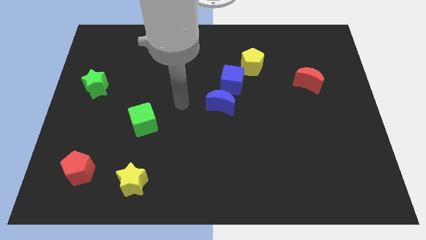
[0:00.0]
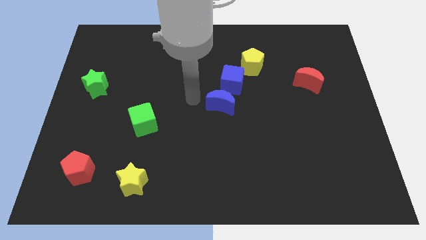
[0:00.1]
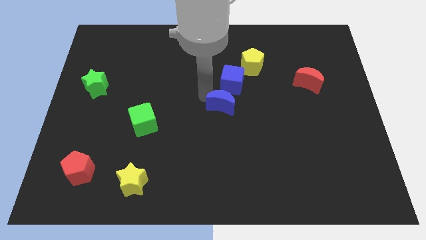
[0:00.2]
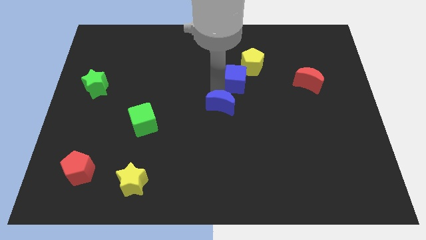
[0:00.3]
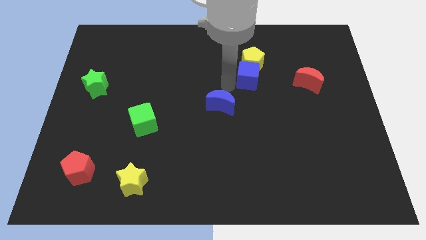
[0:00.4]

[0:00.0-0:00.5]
pull the blue moon apart from the blue cube

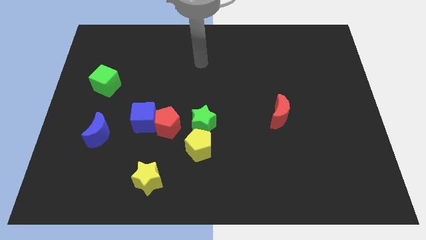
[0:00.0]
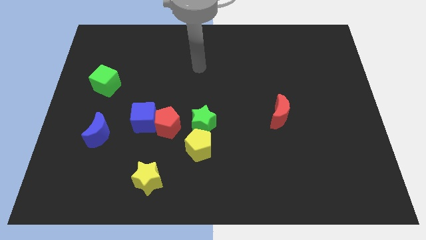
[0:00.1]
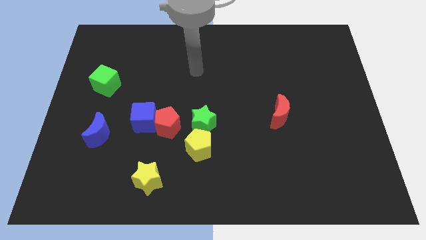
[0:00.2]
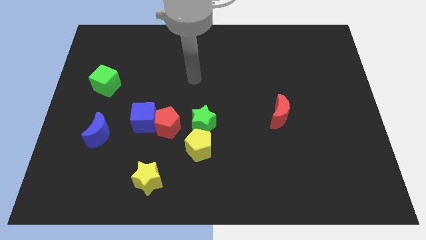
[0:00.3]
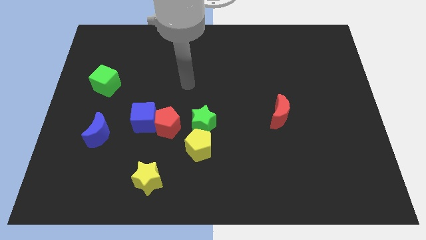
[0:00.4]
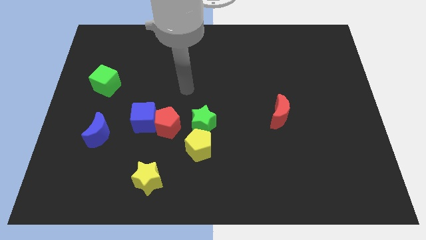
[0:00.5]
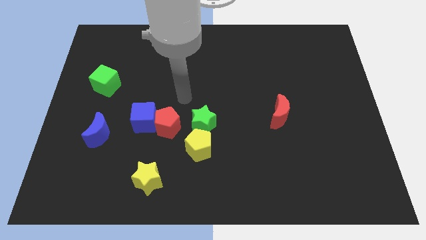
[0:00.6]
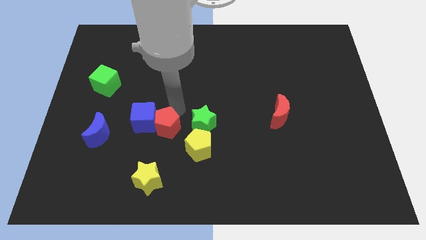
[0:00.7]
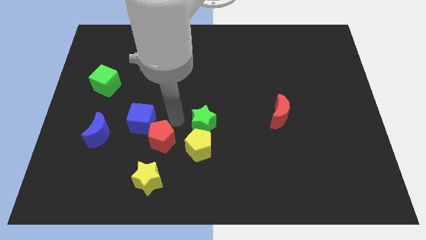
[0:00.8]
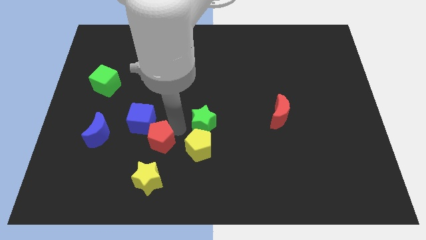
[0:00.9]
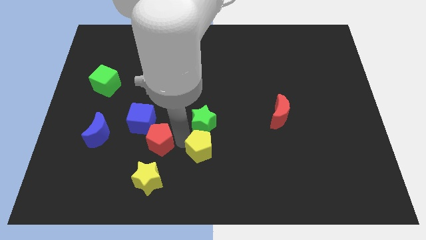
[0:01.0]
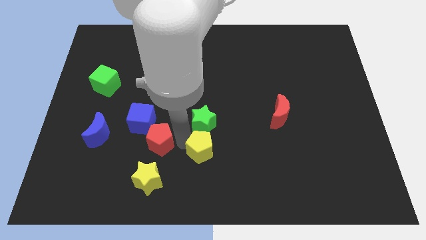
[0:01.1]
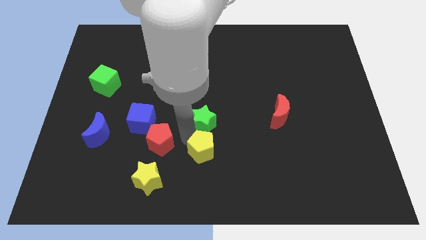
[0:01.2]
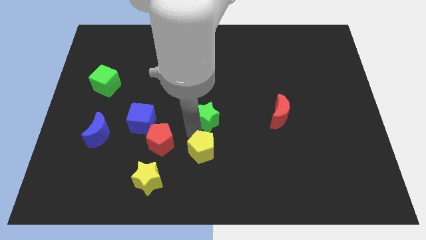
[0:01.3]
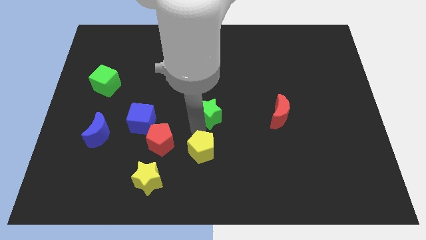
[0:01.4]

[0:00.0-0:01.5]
pull the green star apart from the yellow pentagon and red pentagon

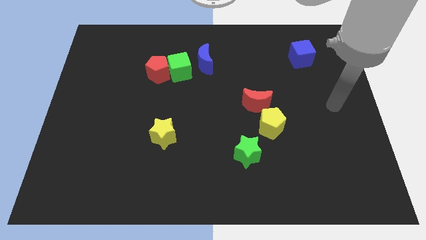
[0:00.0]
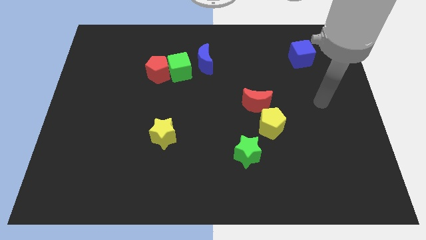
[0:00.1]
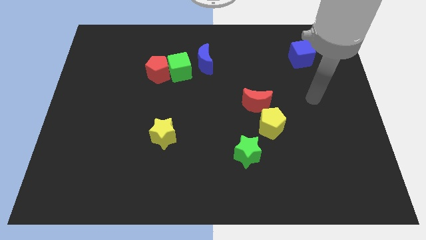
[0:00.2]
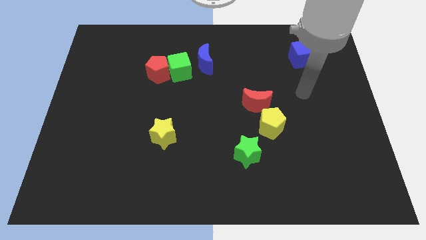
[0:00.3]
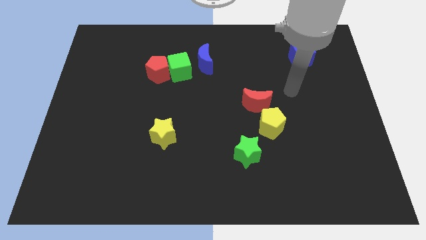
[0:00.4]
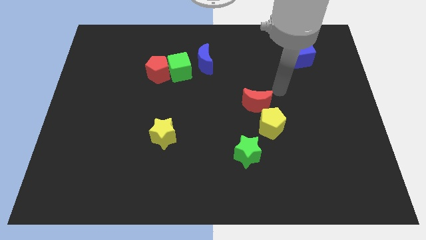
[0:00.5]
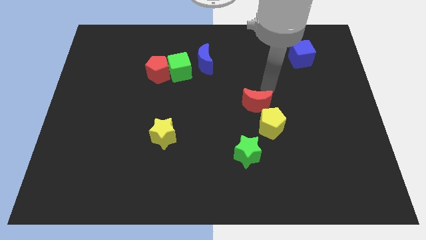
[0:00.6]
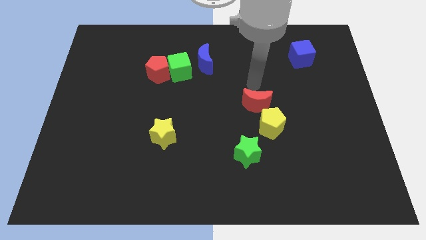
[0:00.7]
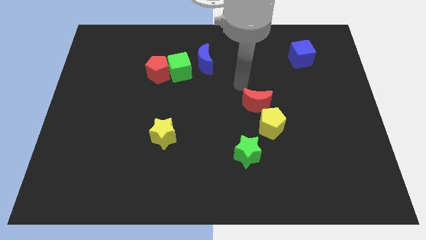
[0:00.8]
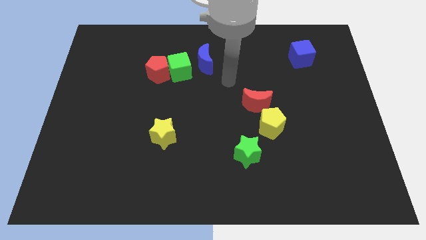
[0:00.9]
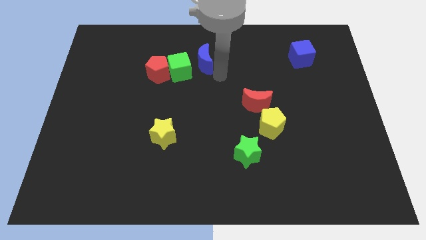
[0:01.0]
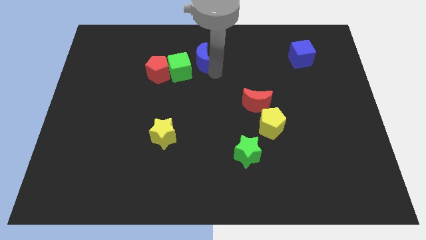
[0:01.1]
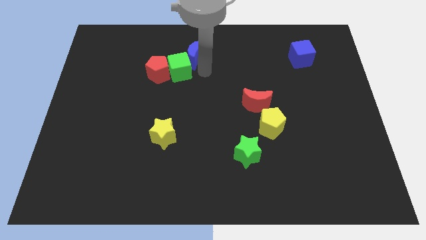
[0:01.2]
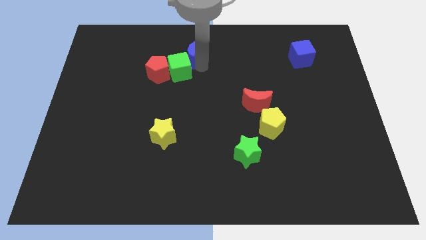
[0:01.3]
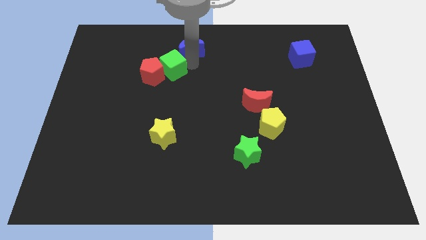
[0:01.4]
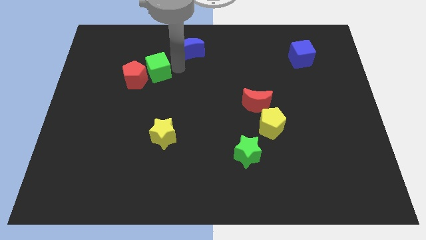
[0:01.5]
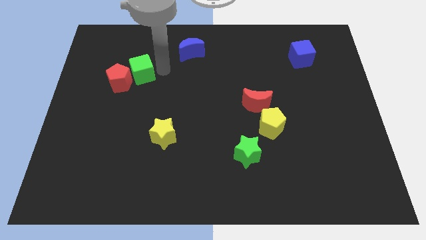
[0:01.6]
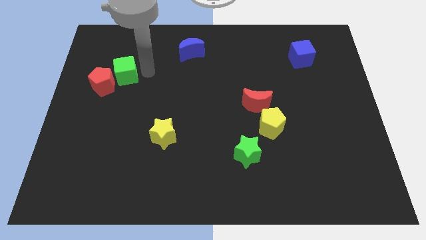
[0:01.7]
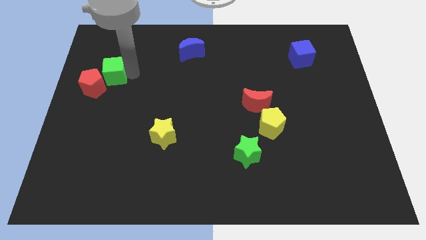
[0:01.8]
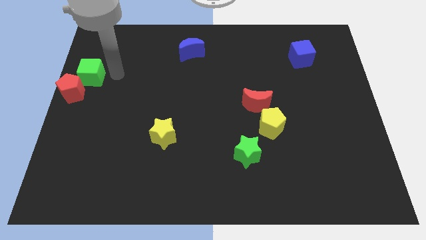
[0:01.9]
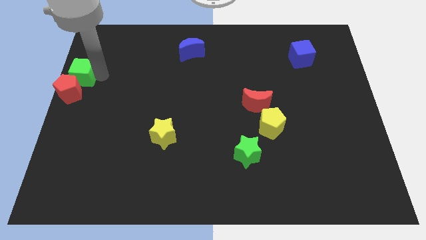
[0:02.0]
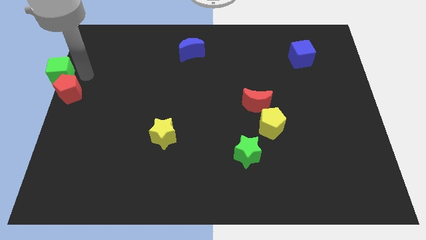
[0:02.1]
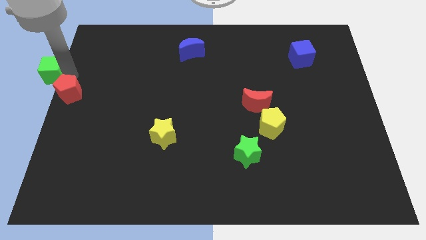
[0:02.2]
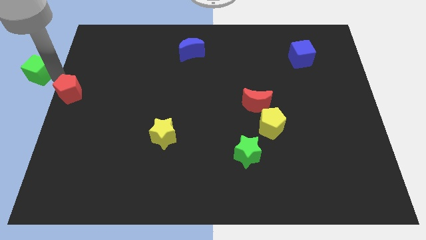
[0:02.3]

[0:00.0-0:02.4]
separate the red pentagon from the green cube

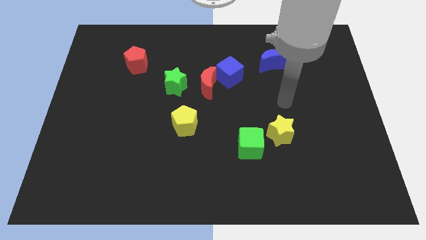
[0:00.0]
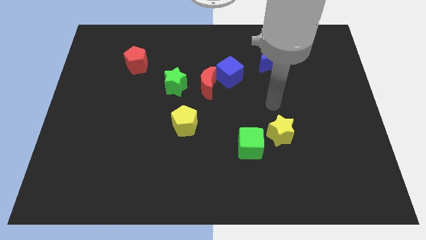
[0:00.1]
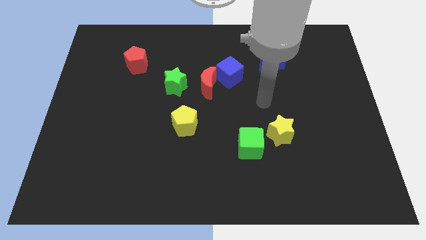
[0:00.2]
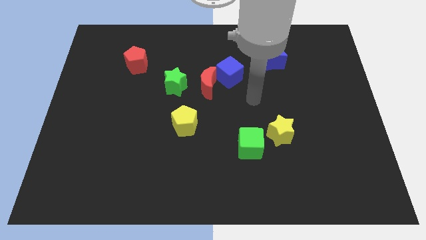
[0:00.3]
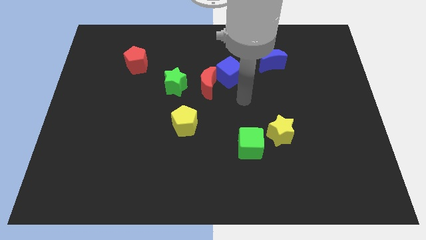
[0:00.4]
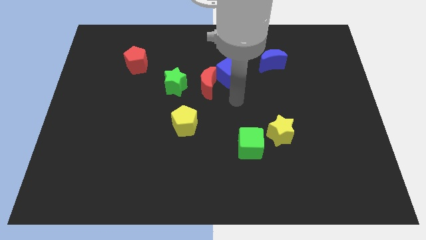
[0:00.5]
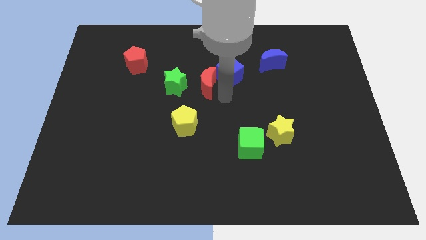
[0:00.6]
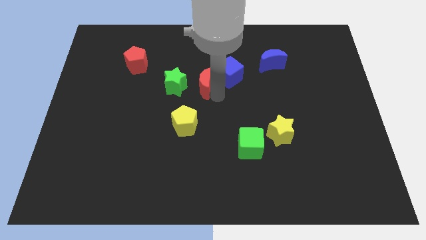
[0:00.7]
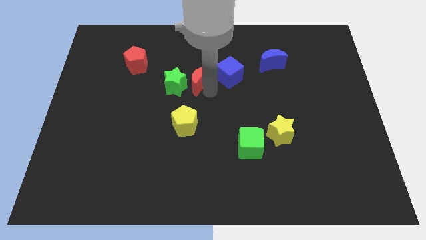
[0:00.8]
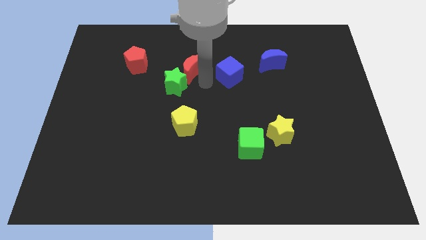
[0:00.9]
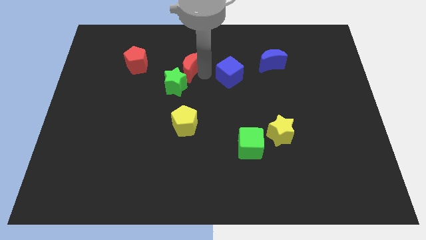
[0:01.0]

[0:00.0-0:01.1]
separate the blue cube from the red moon

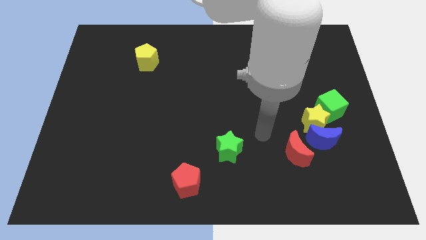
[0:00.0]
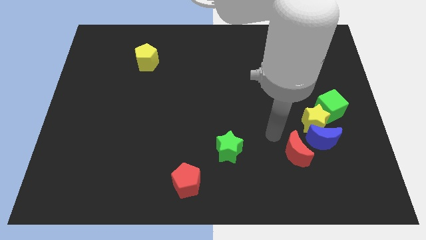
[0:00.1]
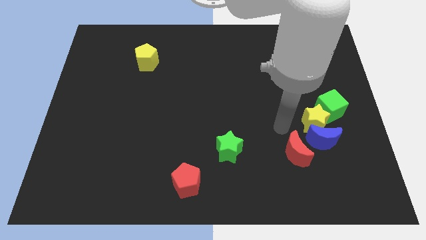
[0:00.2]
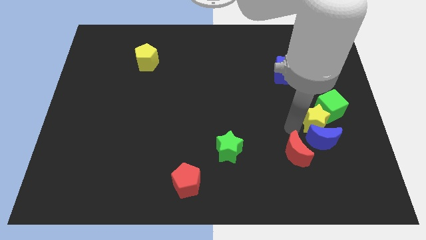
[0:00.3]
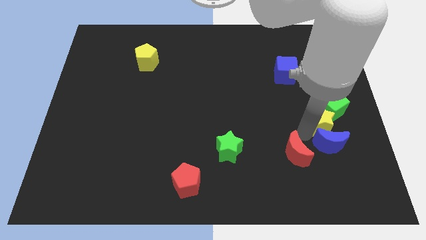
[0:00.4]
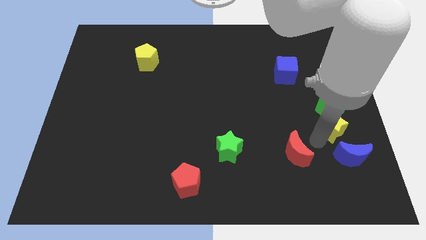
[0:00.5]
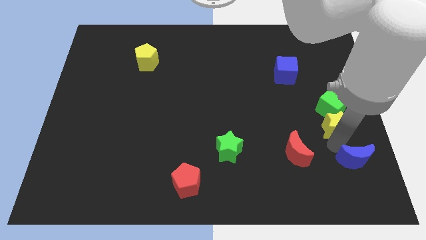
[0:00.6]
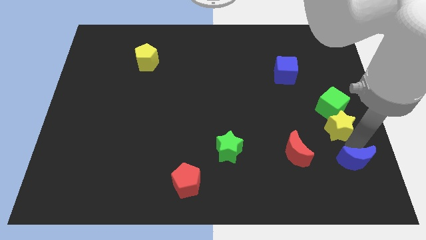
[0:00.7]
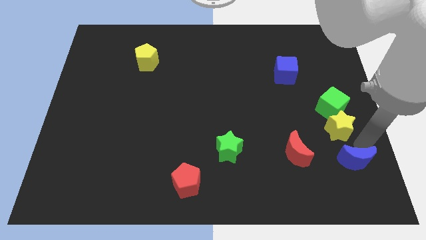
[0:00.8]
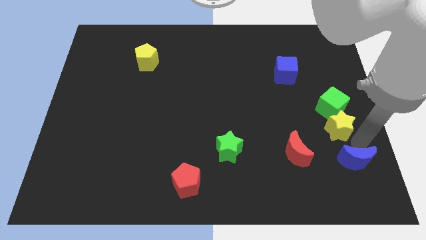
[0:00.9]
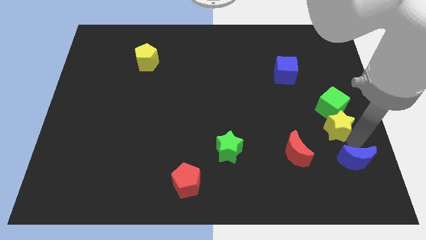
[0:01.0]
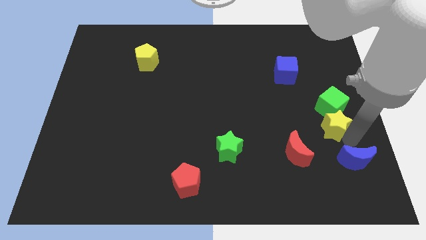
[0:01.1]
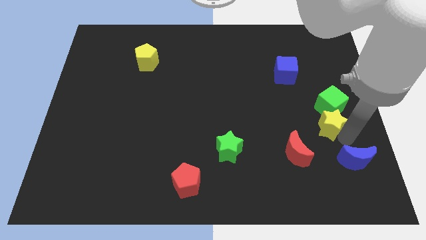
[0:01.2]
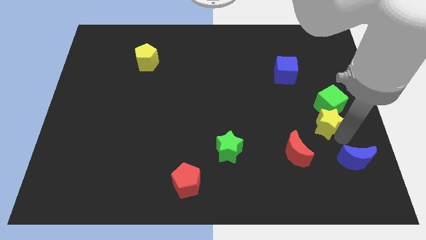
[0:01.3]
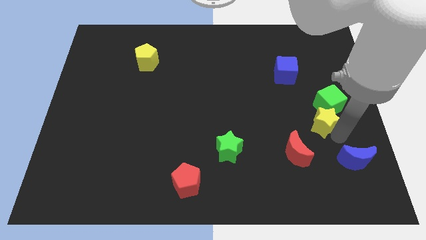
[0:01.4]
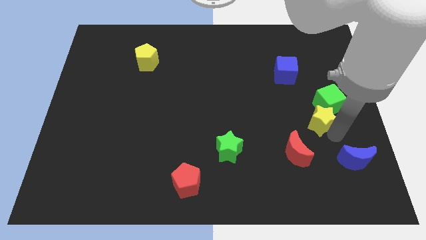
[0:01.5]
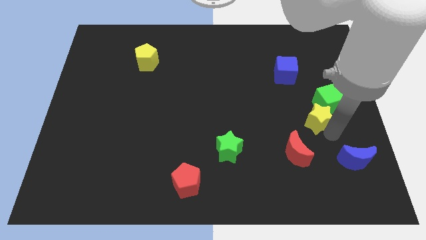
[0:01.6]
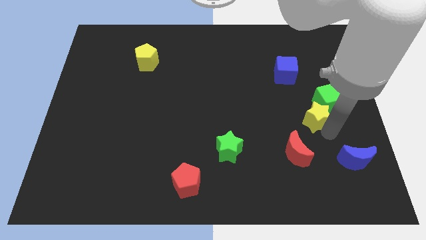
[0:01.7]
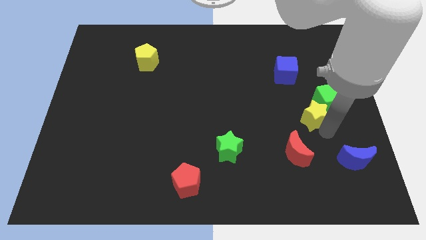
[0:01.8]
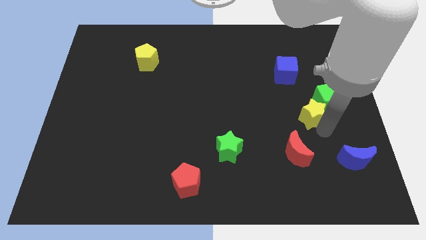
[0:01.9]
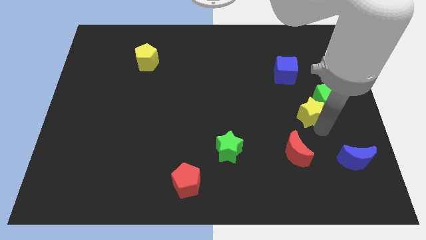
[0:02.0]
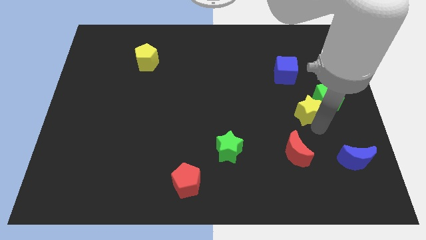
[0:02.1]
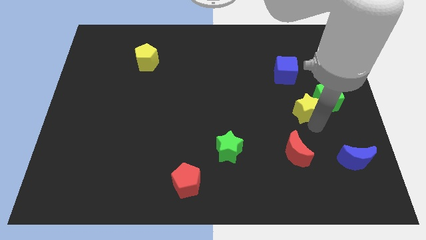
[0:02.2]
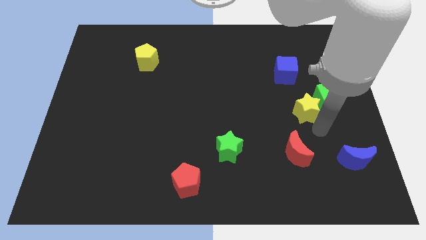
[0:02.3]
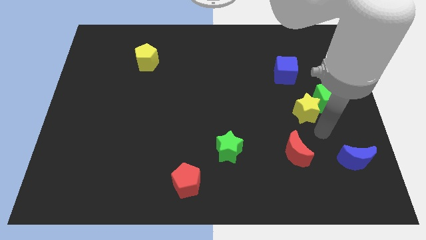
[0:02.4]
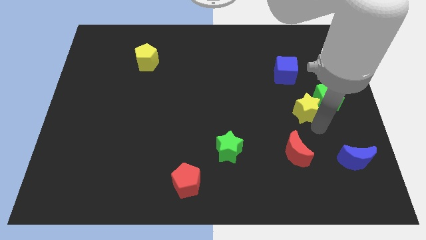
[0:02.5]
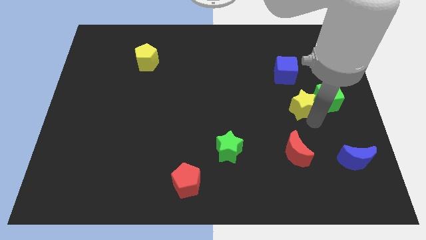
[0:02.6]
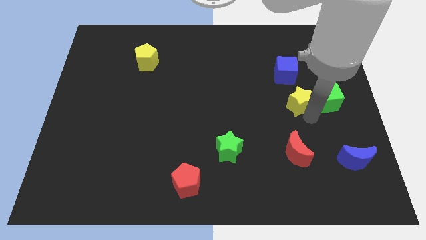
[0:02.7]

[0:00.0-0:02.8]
move the yellow star away from the group of blocks

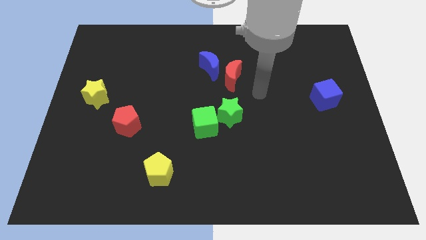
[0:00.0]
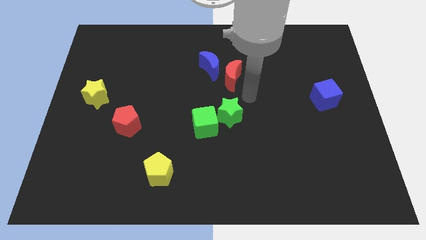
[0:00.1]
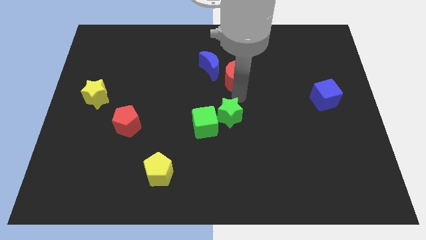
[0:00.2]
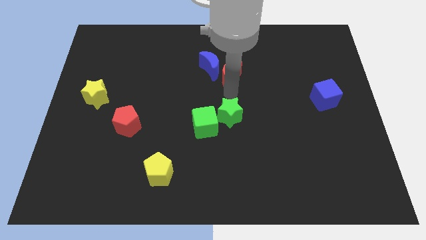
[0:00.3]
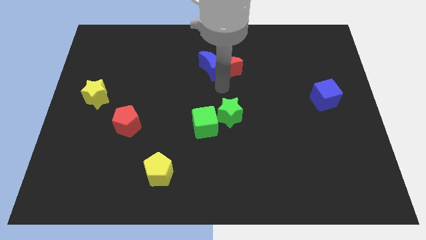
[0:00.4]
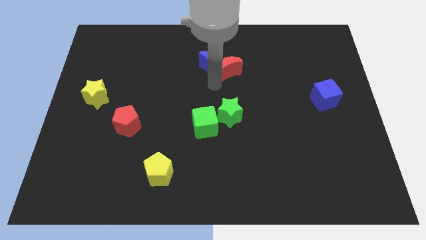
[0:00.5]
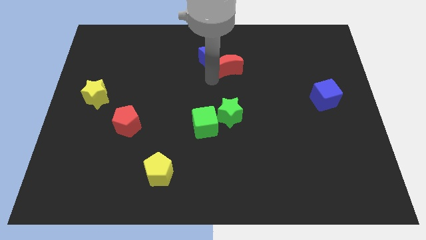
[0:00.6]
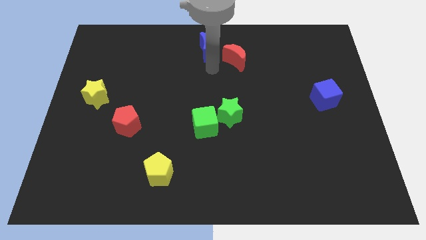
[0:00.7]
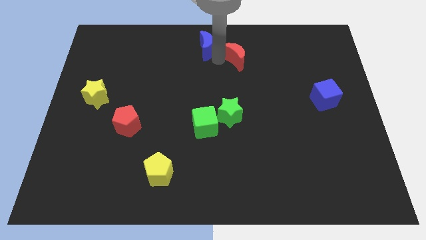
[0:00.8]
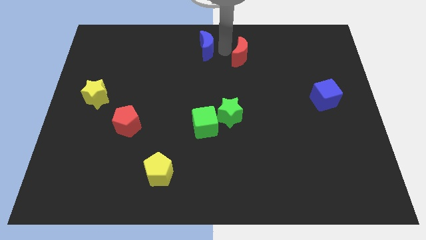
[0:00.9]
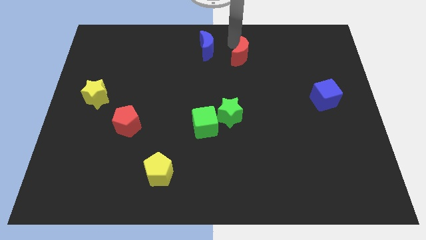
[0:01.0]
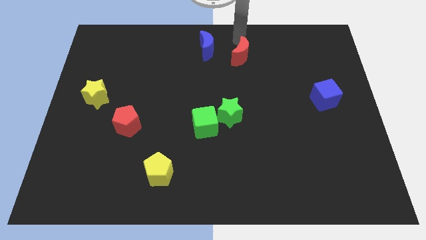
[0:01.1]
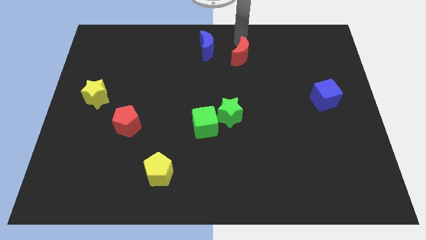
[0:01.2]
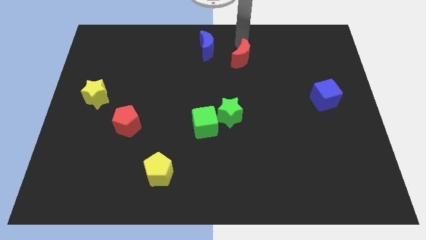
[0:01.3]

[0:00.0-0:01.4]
separate the red moon from the blue moon
